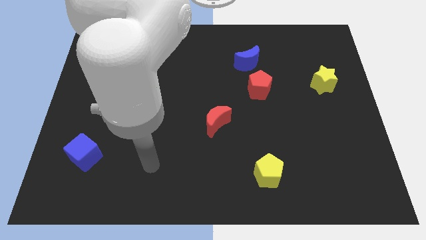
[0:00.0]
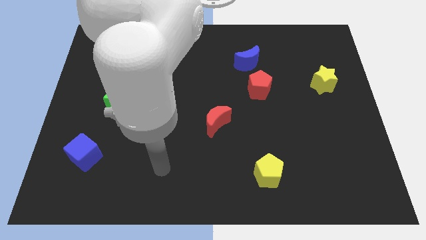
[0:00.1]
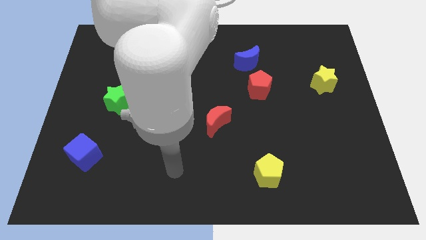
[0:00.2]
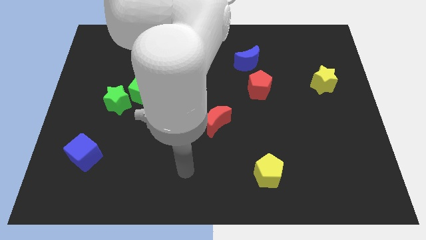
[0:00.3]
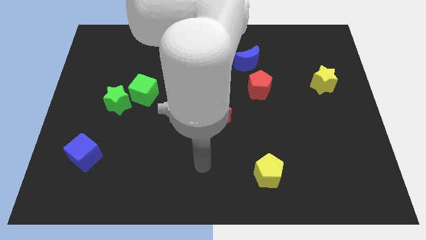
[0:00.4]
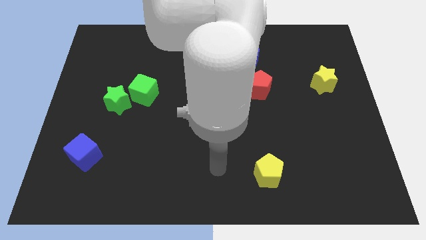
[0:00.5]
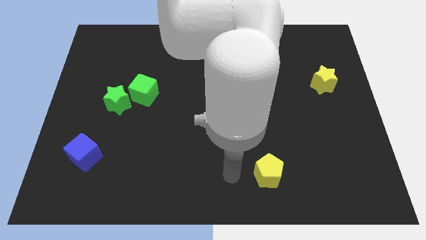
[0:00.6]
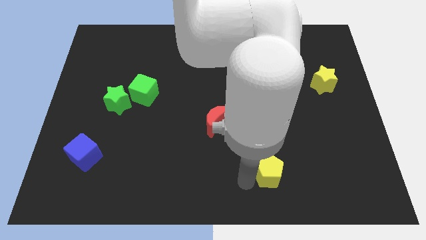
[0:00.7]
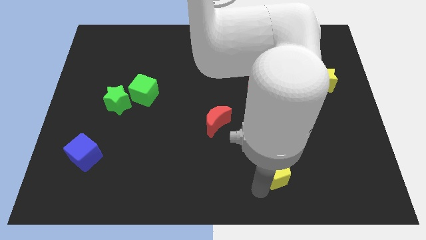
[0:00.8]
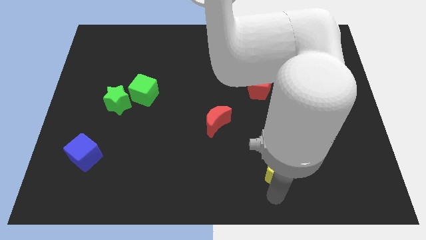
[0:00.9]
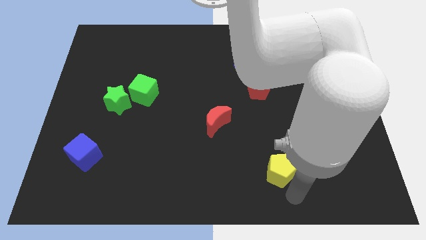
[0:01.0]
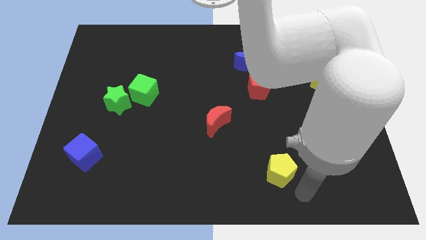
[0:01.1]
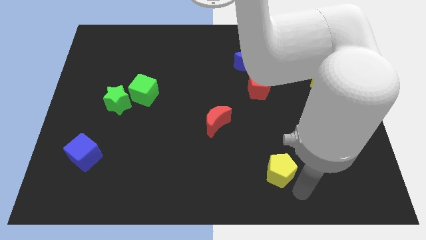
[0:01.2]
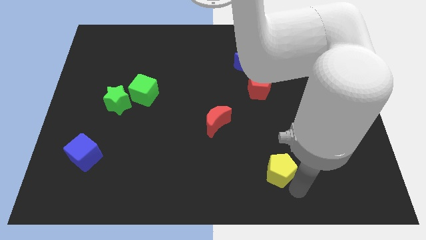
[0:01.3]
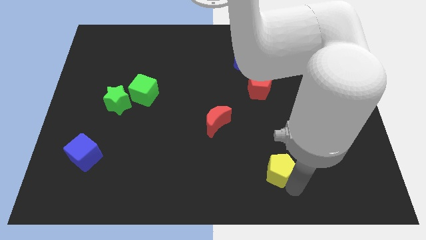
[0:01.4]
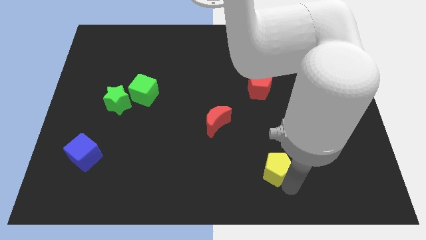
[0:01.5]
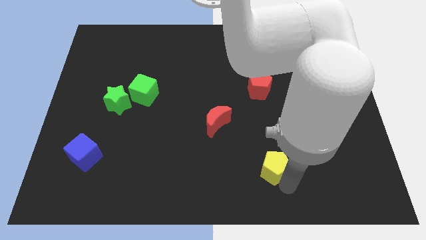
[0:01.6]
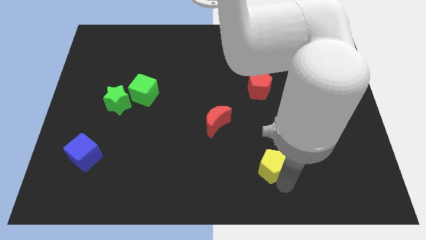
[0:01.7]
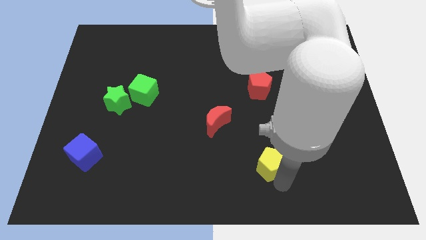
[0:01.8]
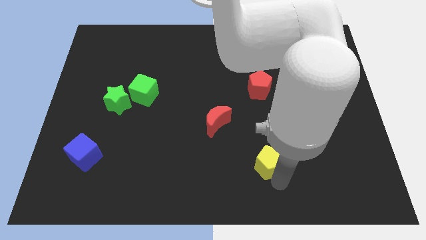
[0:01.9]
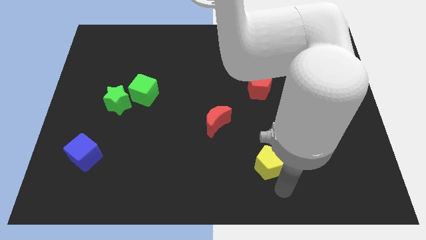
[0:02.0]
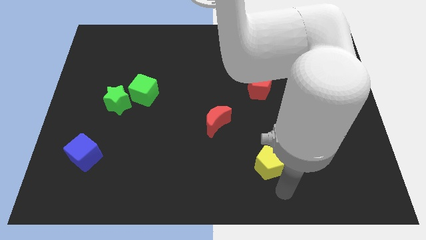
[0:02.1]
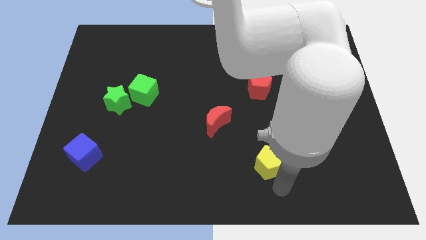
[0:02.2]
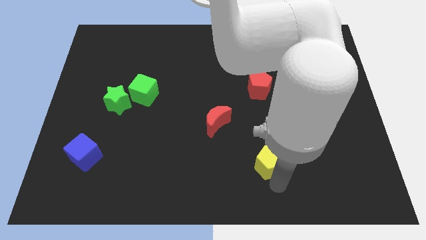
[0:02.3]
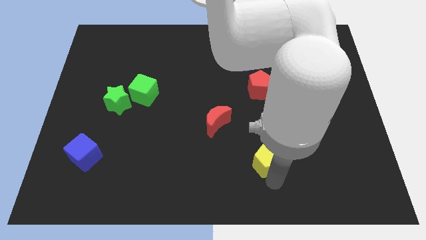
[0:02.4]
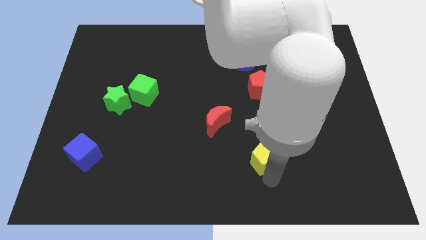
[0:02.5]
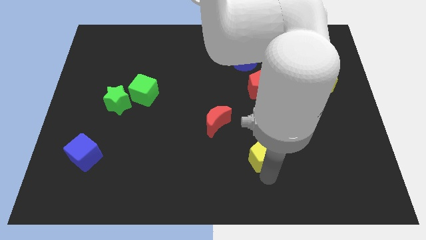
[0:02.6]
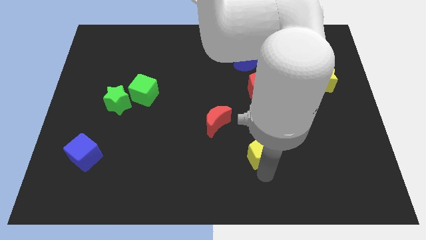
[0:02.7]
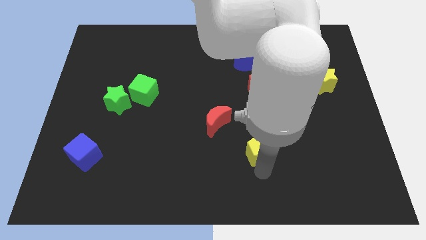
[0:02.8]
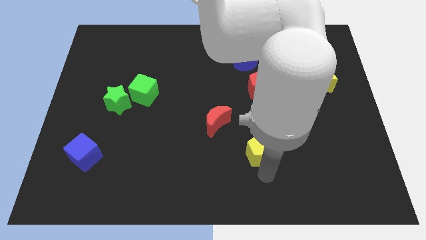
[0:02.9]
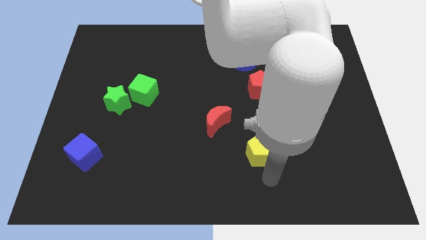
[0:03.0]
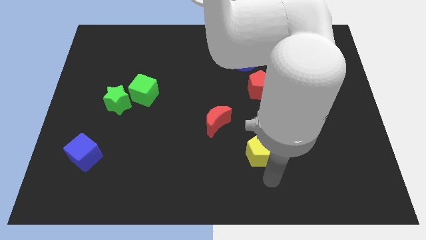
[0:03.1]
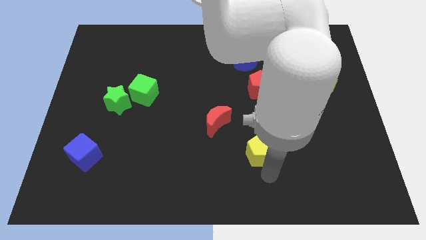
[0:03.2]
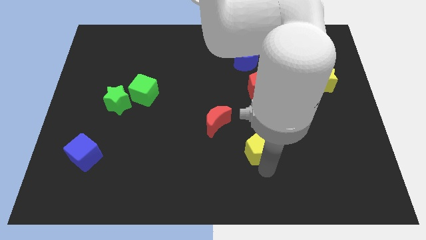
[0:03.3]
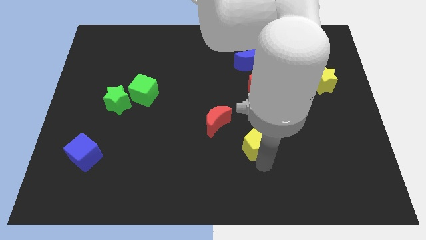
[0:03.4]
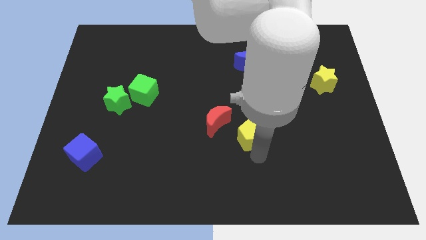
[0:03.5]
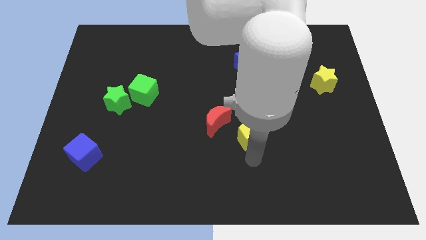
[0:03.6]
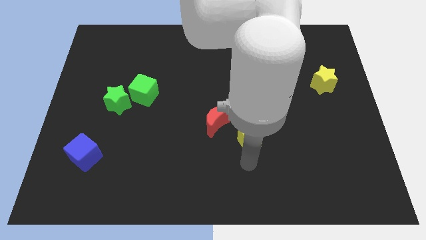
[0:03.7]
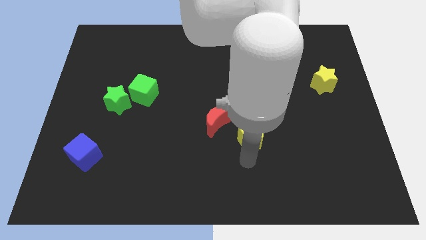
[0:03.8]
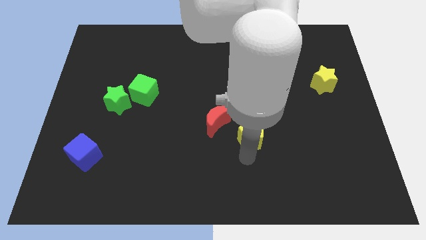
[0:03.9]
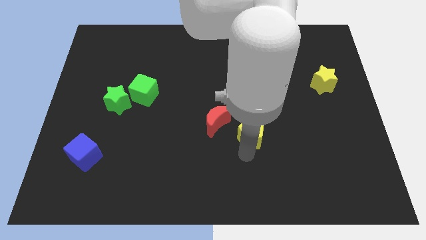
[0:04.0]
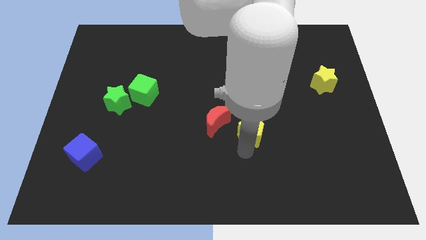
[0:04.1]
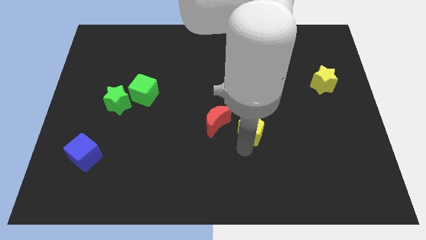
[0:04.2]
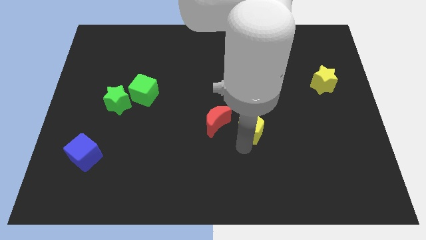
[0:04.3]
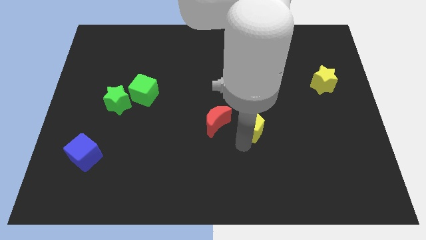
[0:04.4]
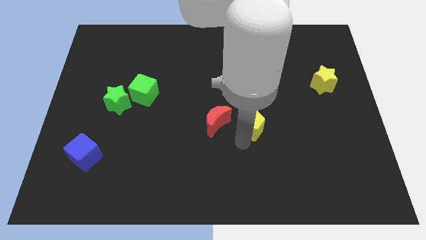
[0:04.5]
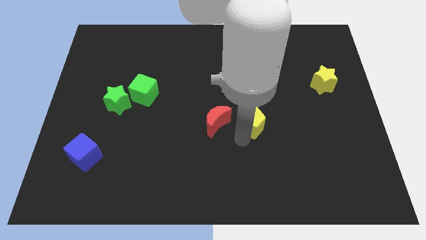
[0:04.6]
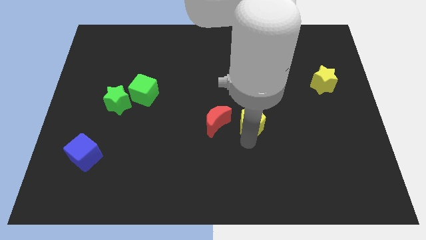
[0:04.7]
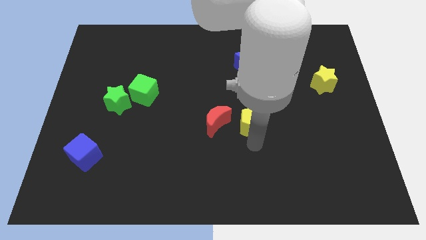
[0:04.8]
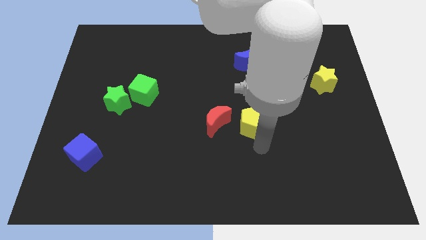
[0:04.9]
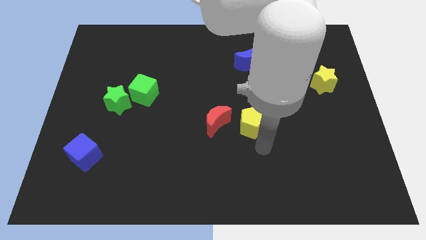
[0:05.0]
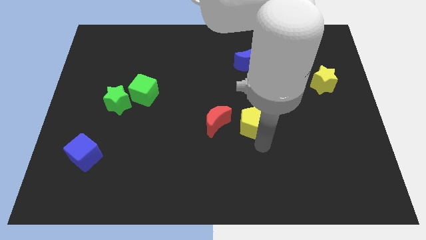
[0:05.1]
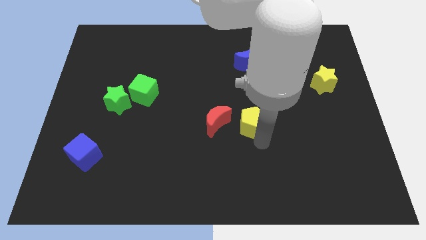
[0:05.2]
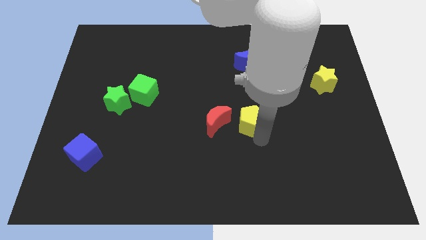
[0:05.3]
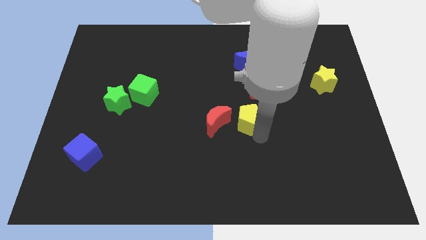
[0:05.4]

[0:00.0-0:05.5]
move the yellow pentagon diagonally down and to the left of the red pentagon

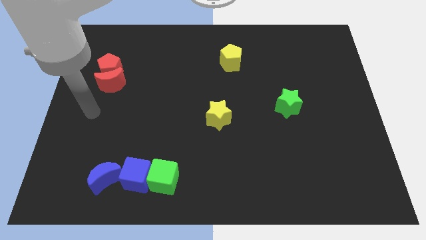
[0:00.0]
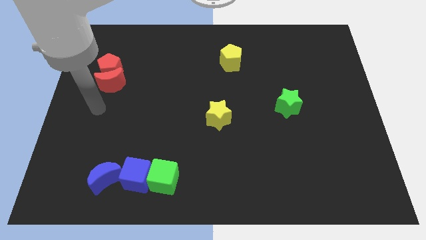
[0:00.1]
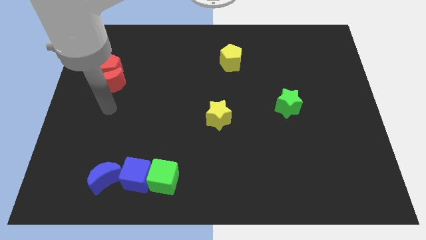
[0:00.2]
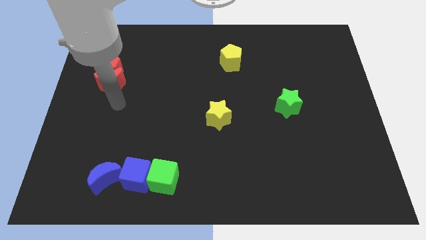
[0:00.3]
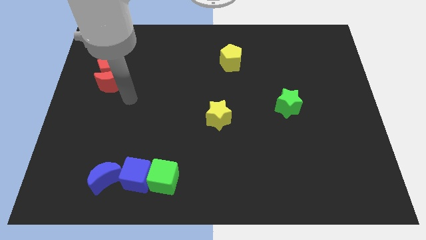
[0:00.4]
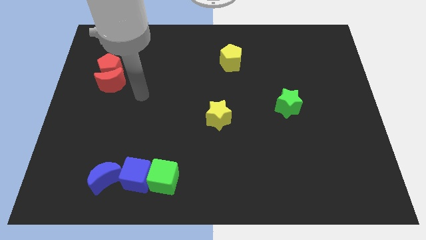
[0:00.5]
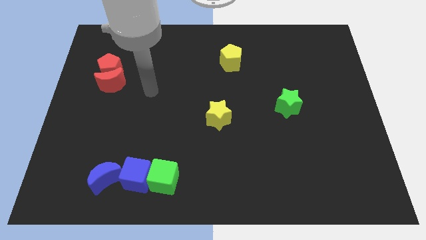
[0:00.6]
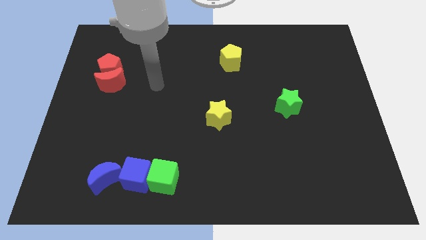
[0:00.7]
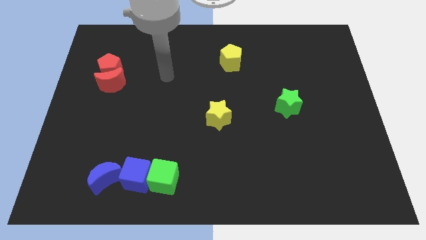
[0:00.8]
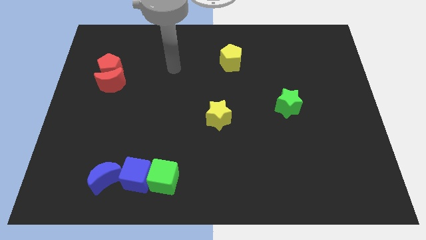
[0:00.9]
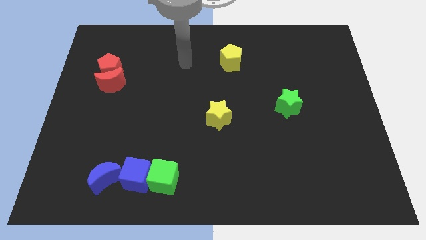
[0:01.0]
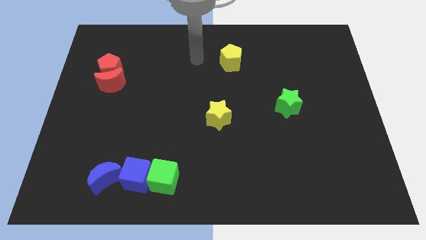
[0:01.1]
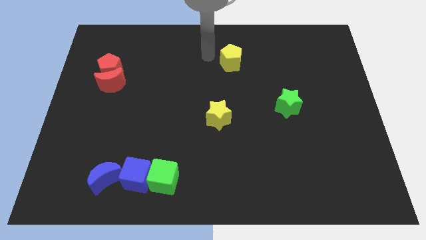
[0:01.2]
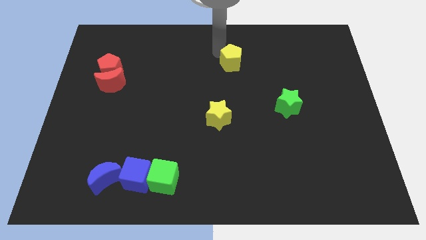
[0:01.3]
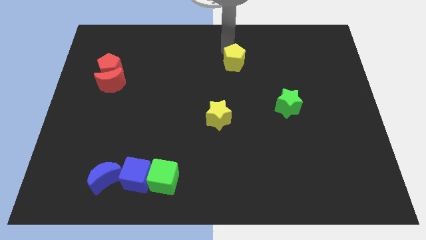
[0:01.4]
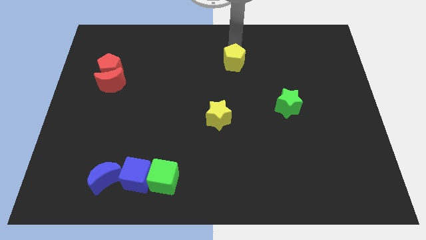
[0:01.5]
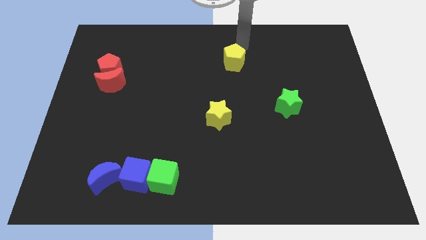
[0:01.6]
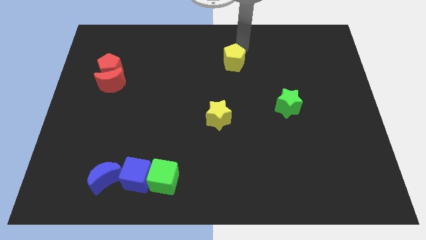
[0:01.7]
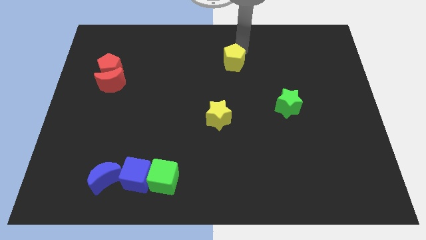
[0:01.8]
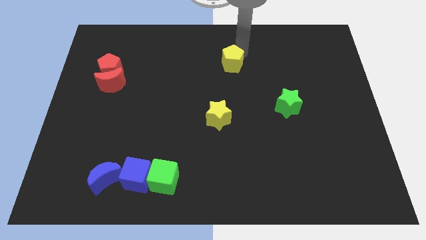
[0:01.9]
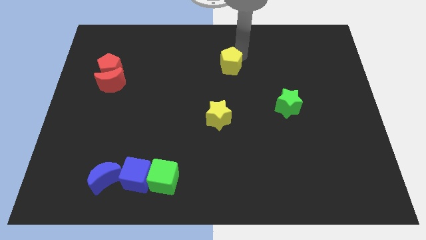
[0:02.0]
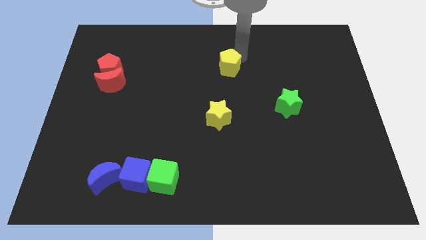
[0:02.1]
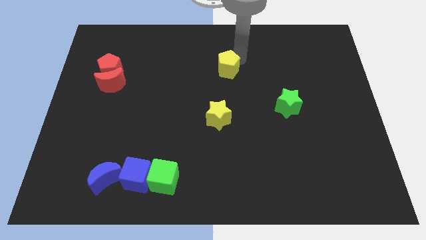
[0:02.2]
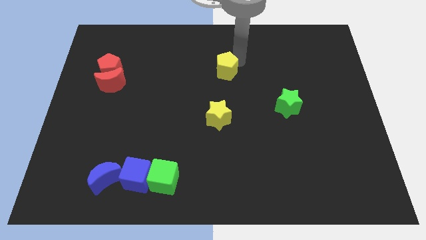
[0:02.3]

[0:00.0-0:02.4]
push the yellow pentagon to the top side of the yellow star
